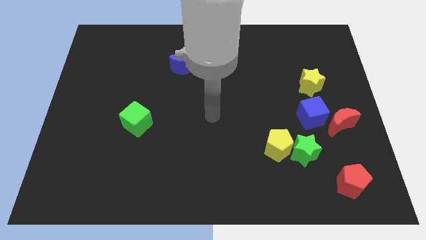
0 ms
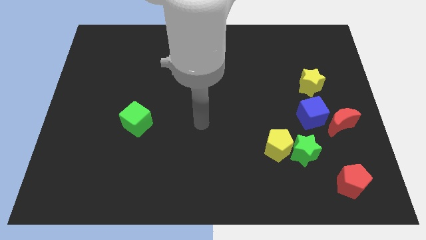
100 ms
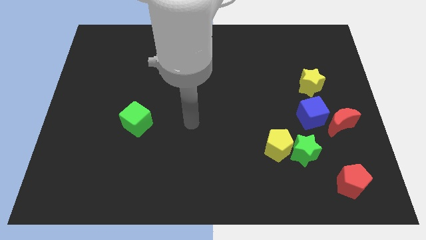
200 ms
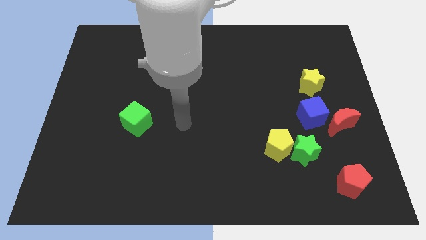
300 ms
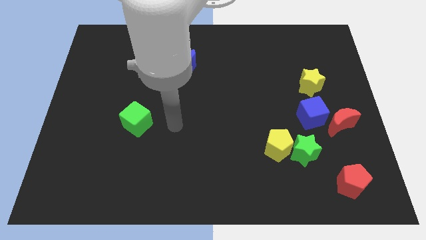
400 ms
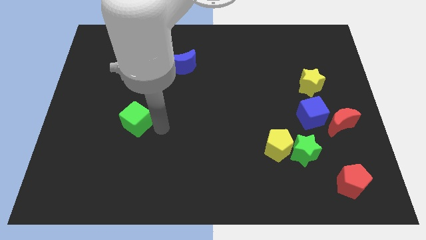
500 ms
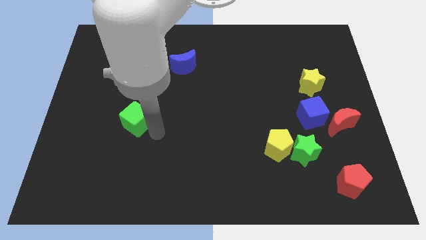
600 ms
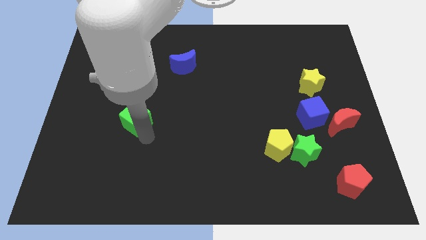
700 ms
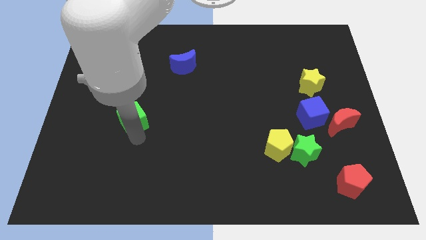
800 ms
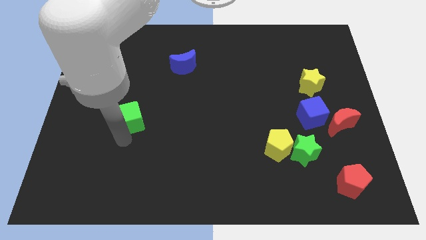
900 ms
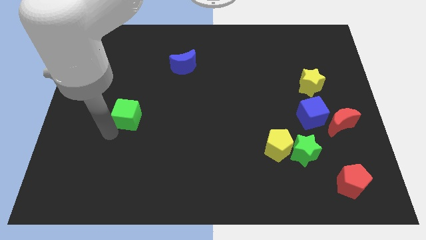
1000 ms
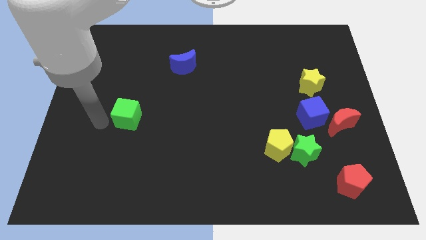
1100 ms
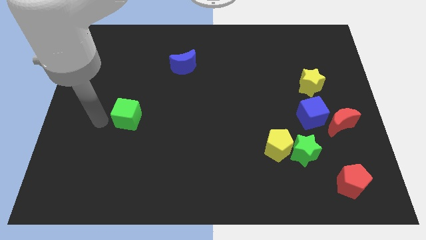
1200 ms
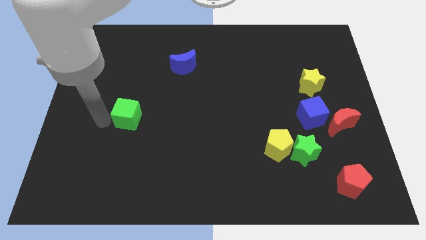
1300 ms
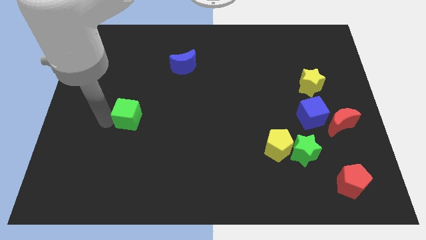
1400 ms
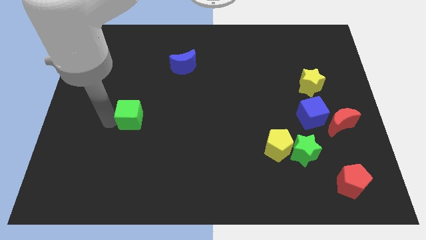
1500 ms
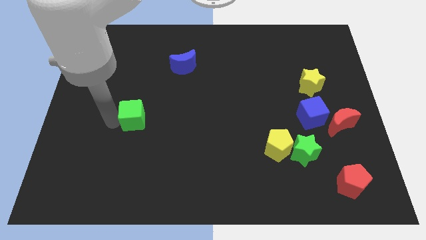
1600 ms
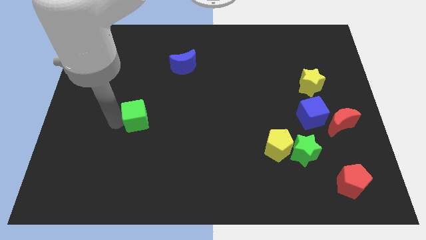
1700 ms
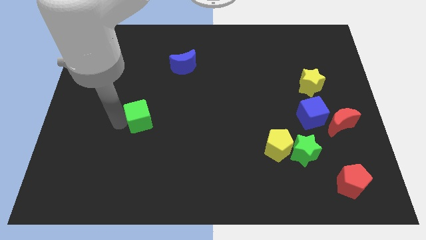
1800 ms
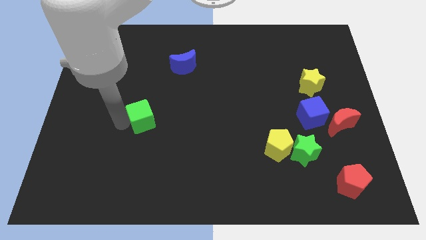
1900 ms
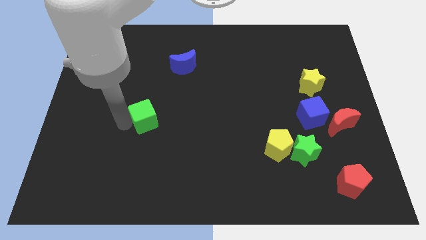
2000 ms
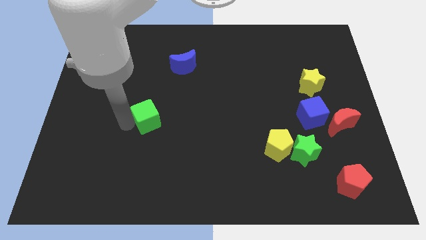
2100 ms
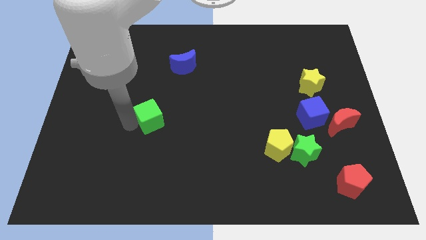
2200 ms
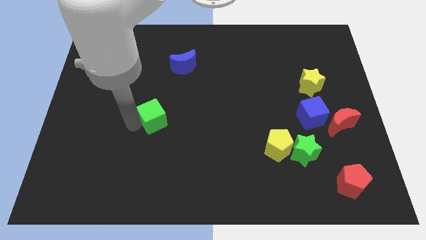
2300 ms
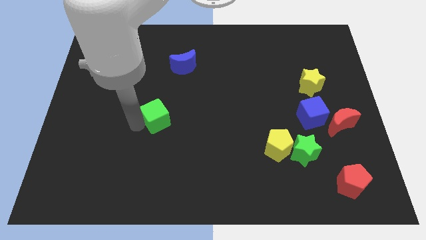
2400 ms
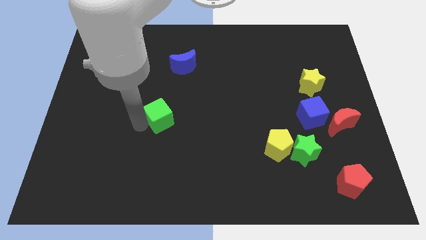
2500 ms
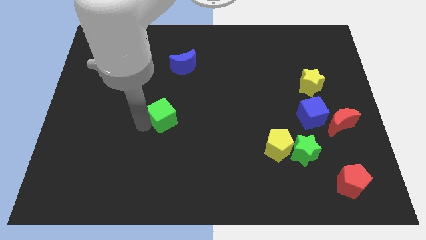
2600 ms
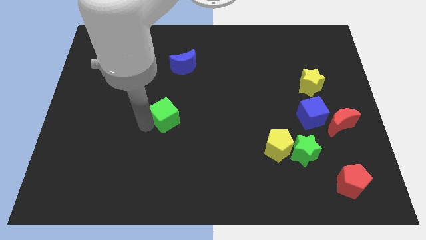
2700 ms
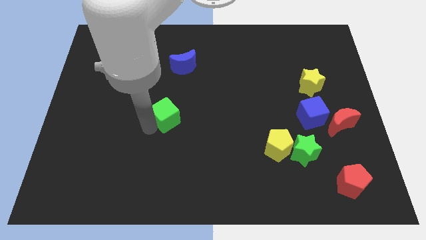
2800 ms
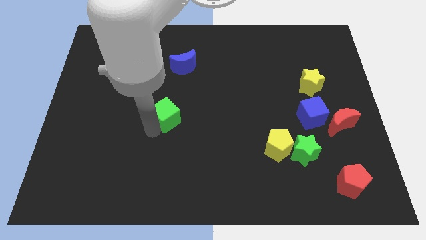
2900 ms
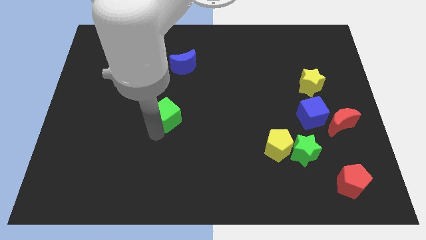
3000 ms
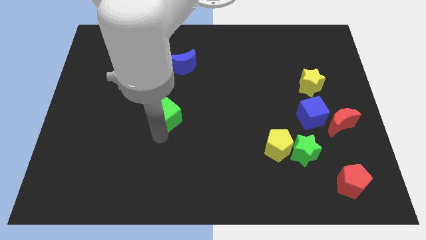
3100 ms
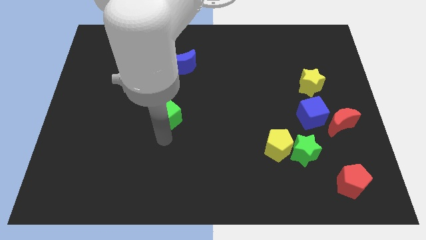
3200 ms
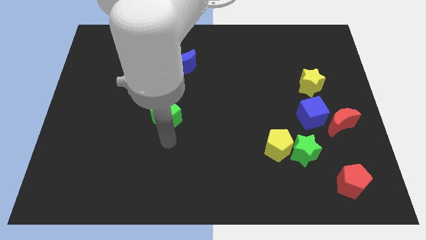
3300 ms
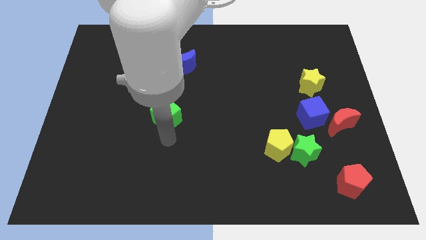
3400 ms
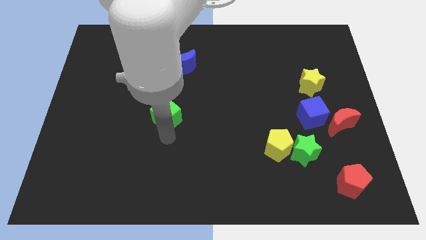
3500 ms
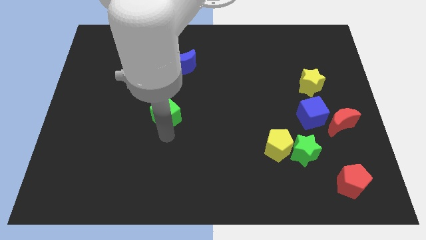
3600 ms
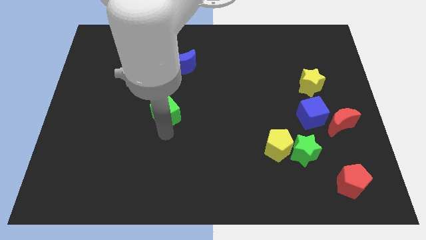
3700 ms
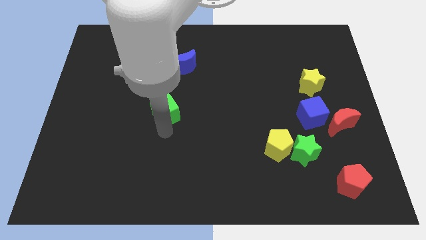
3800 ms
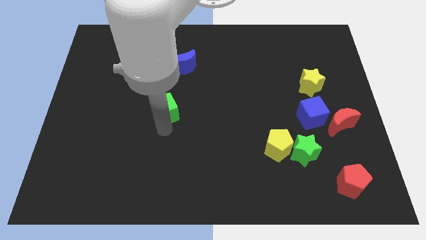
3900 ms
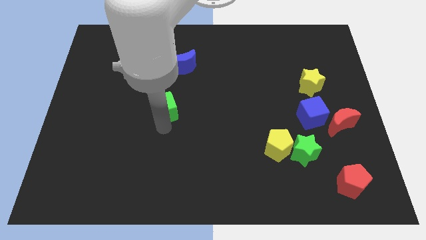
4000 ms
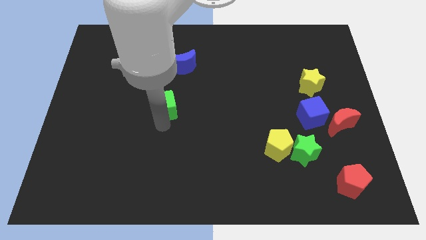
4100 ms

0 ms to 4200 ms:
push the green cube upwards and right diagonally slightly

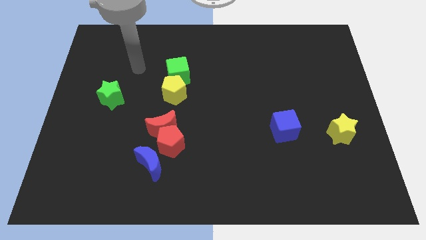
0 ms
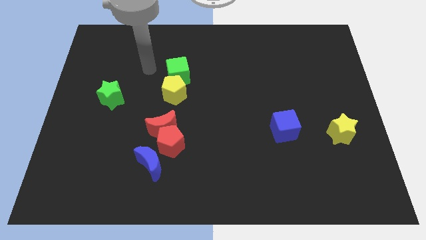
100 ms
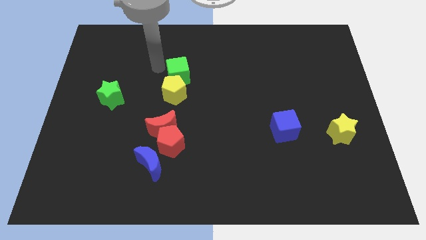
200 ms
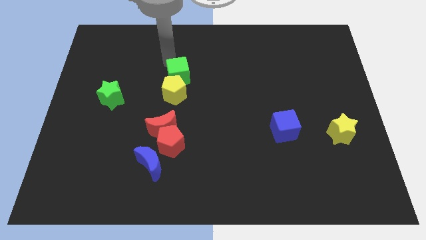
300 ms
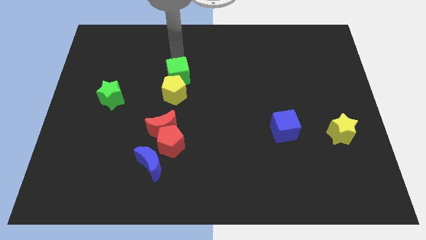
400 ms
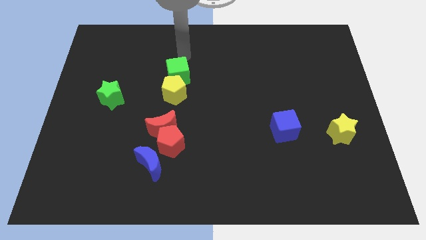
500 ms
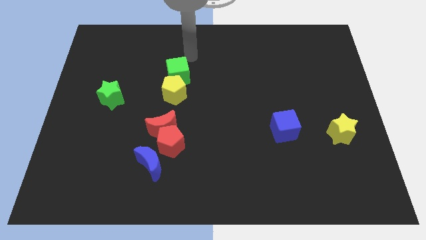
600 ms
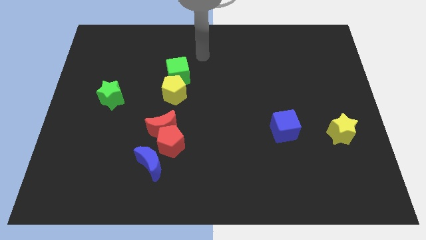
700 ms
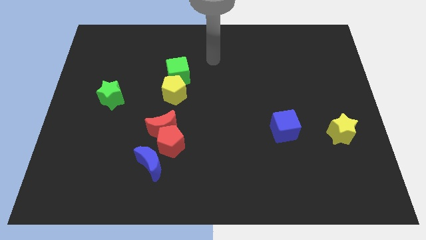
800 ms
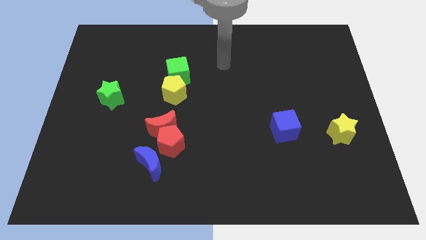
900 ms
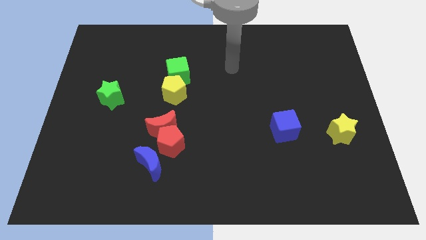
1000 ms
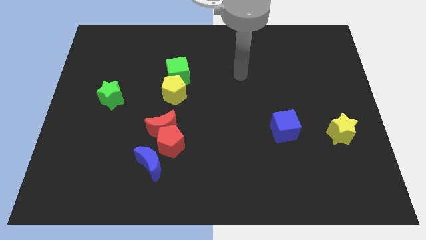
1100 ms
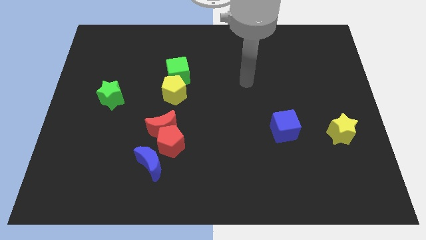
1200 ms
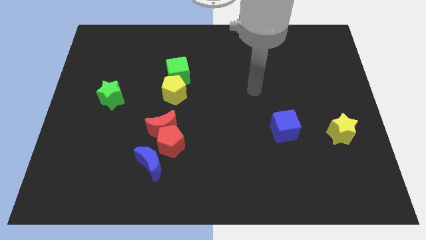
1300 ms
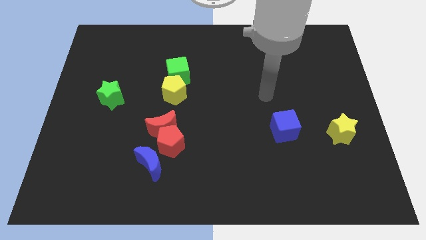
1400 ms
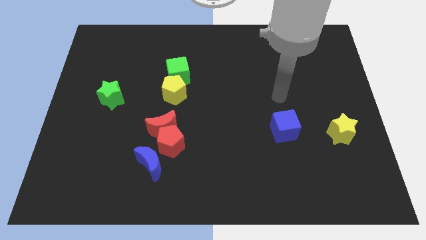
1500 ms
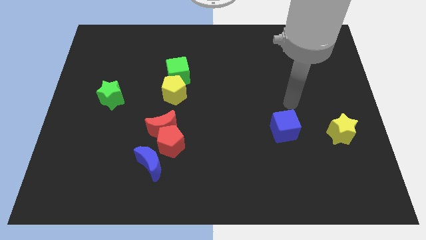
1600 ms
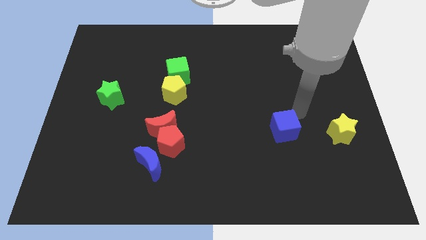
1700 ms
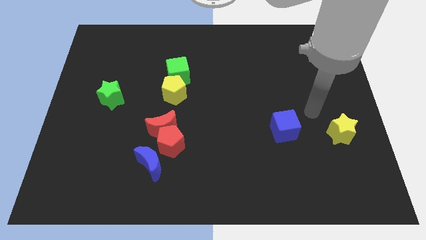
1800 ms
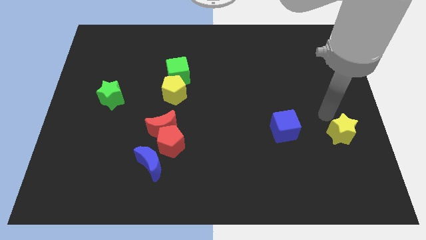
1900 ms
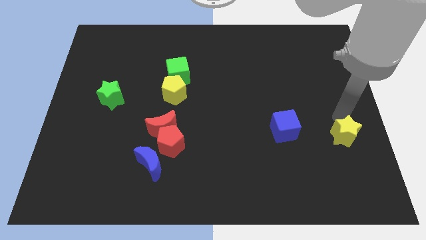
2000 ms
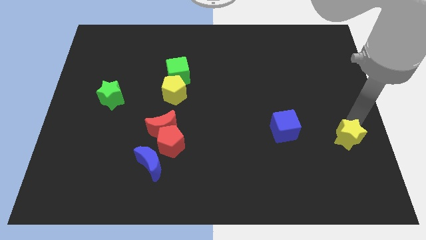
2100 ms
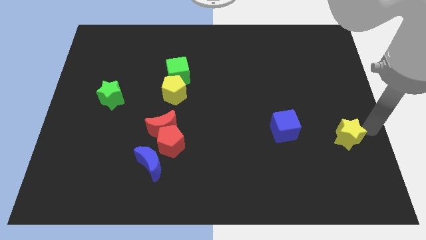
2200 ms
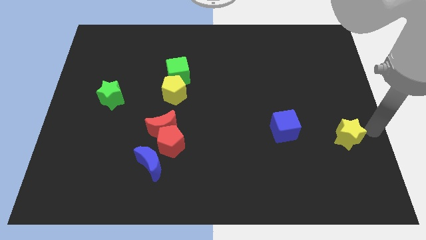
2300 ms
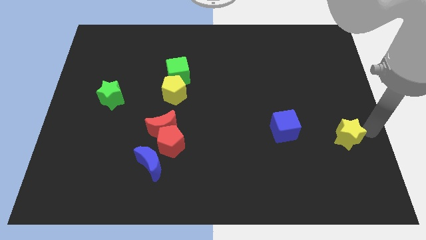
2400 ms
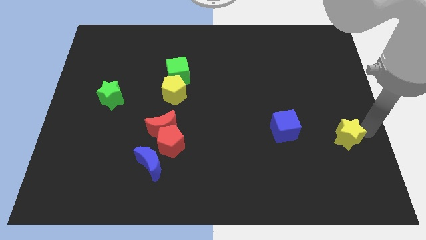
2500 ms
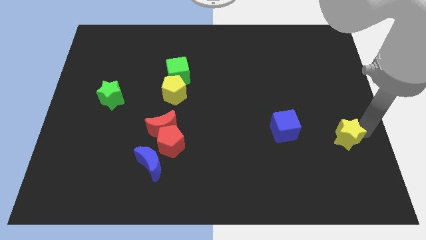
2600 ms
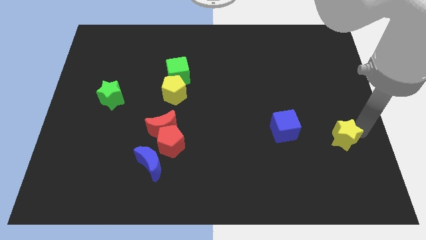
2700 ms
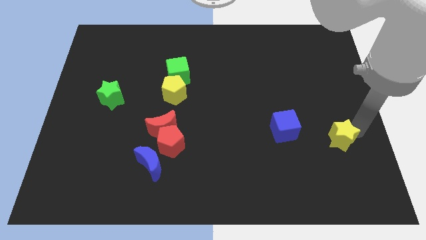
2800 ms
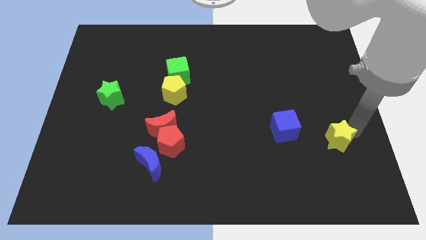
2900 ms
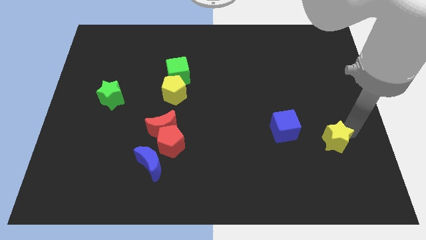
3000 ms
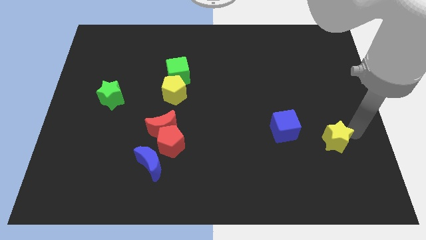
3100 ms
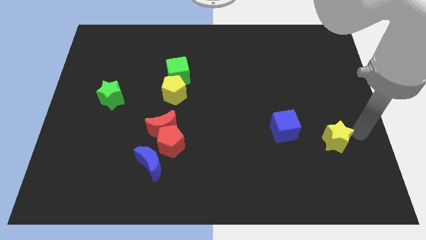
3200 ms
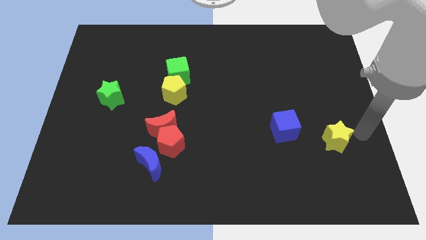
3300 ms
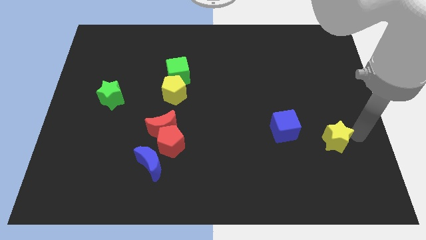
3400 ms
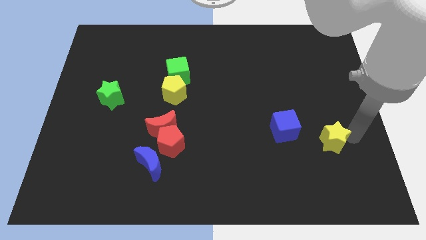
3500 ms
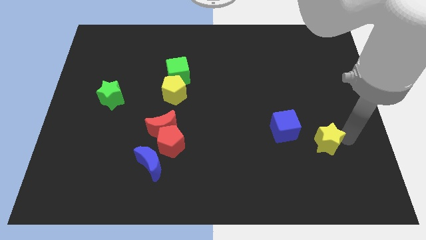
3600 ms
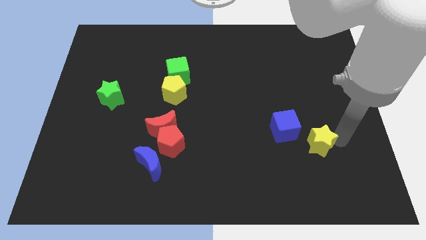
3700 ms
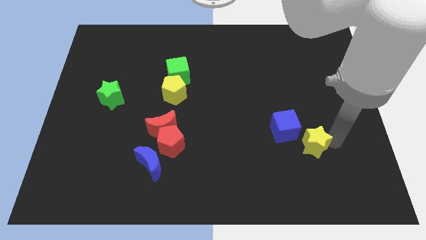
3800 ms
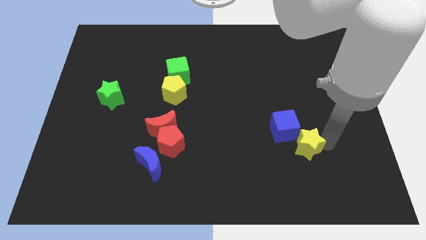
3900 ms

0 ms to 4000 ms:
push the yellow star left a little
